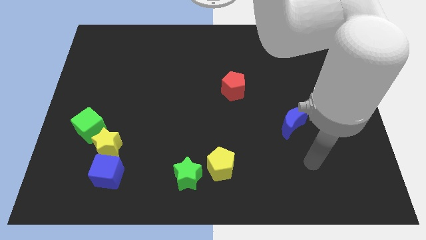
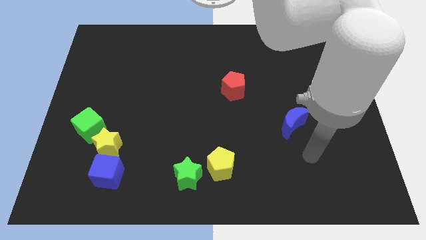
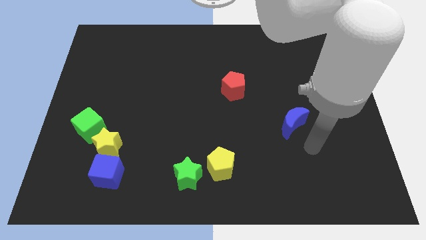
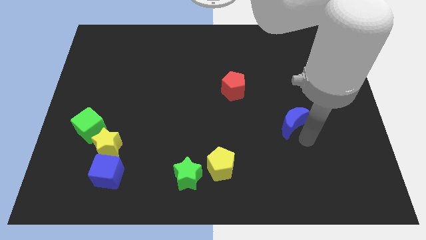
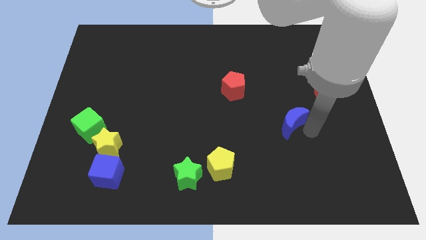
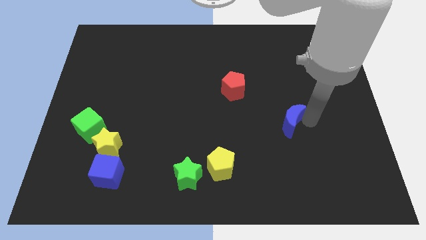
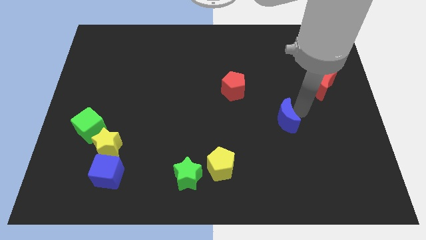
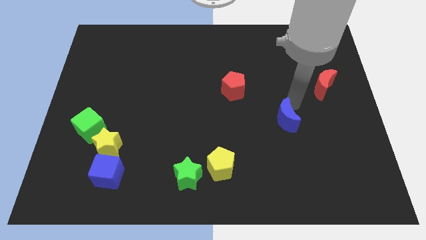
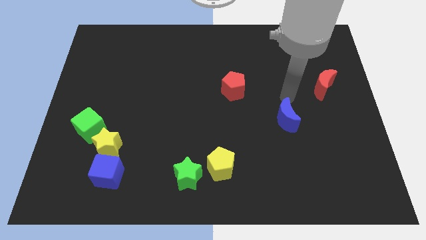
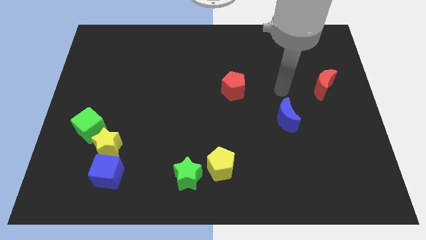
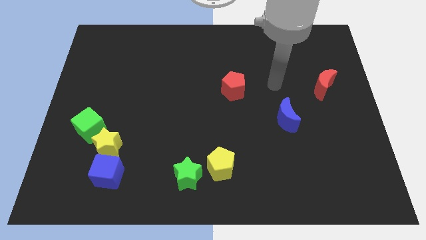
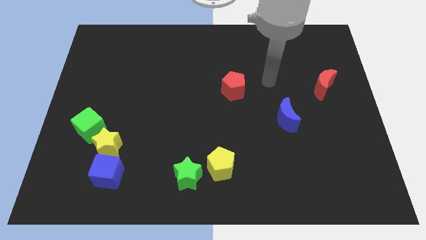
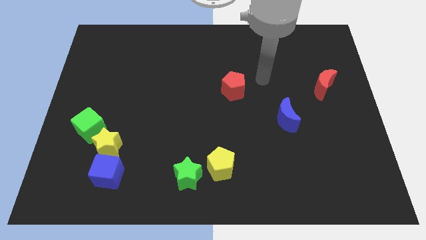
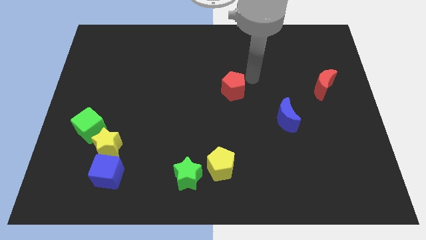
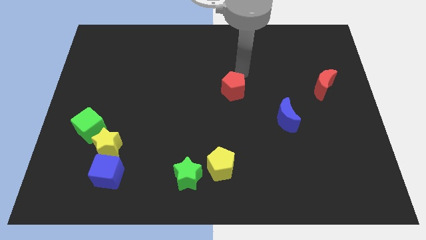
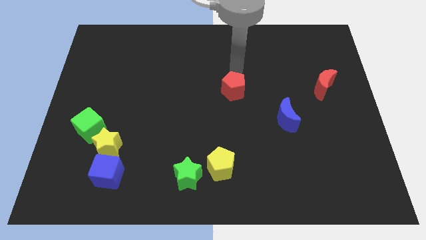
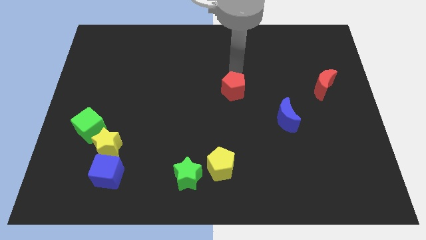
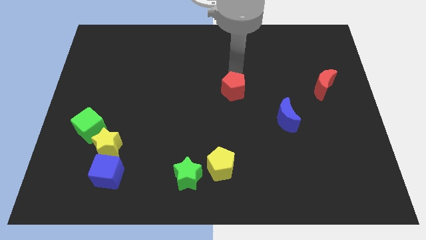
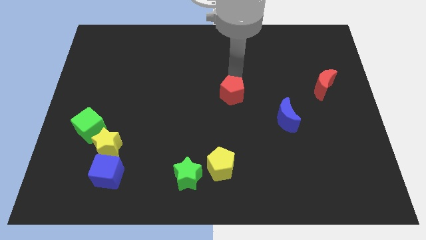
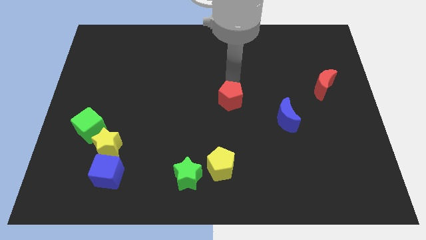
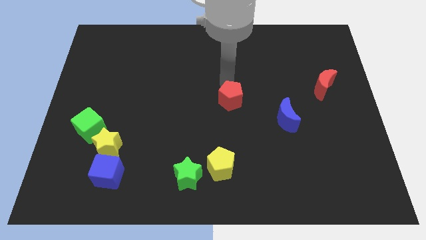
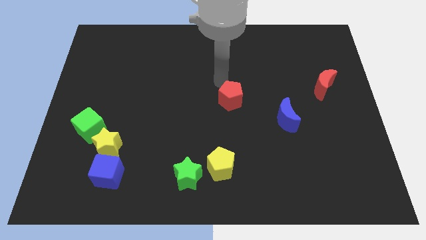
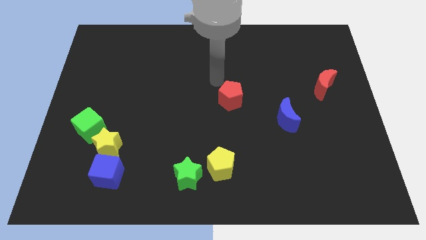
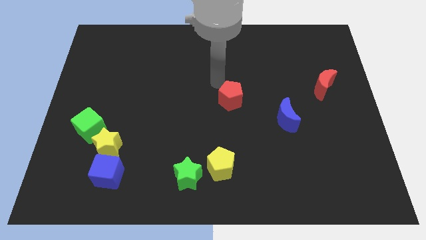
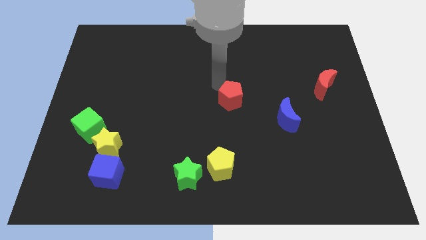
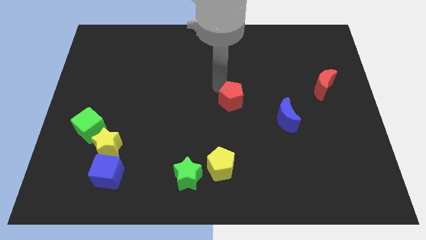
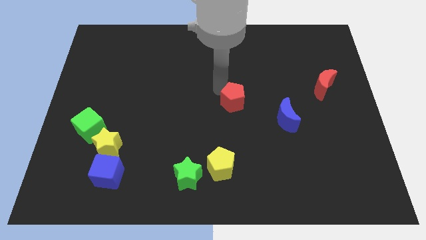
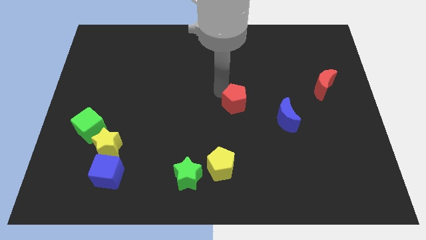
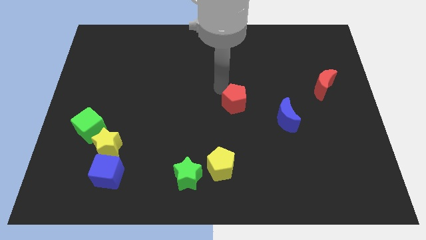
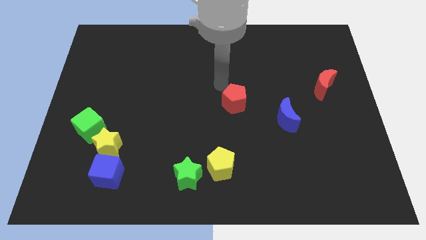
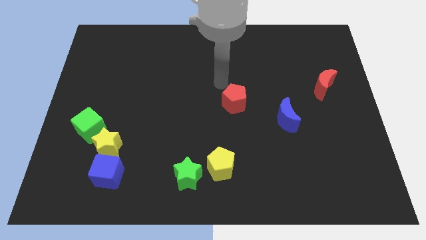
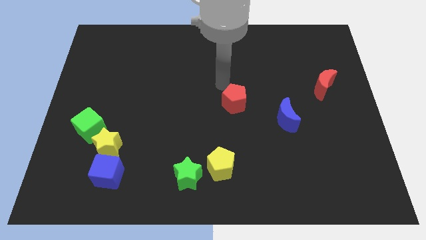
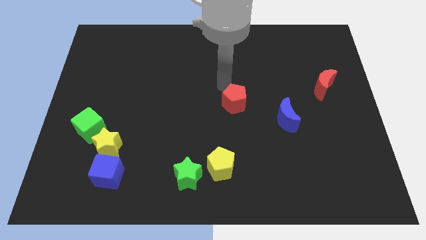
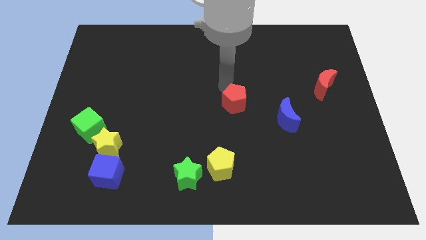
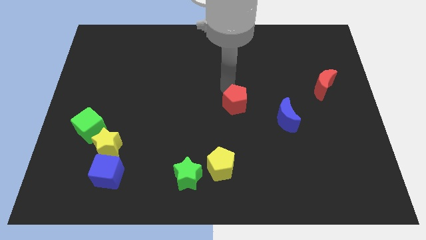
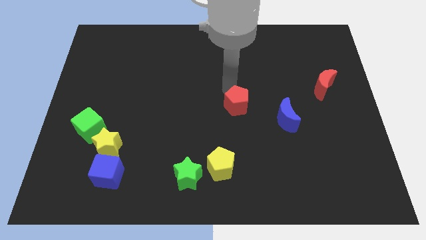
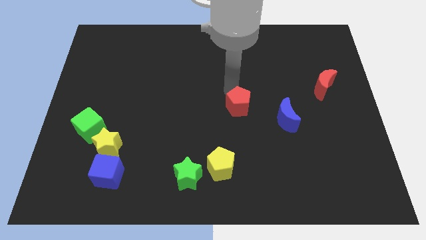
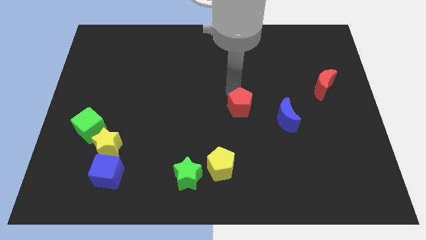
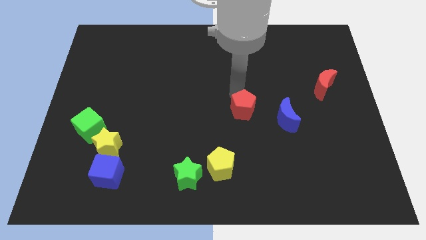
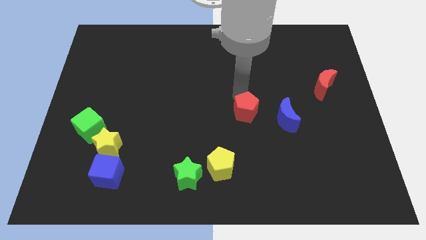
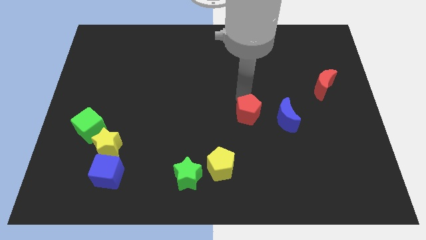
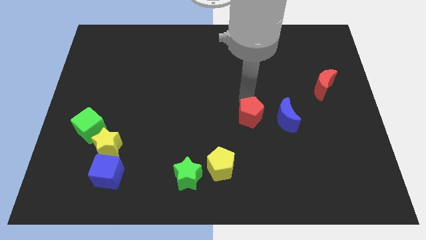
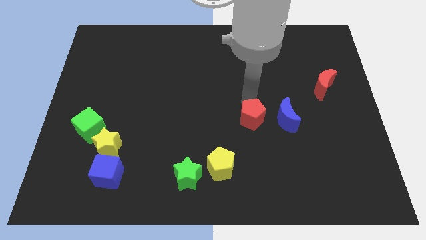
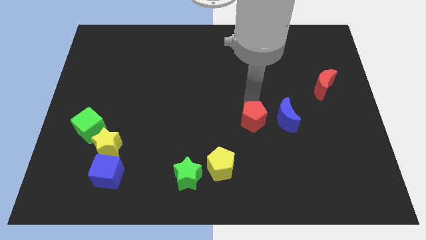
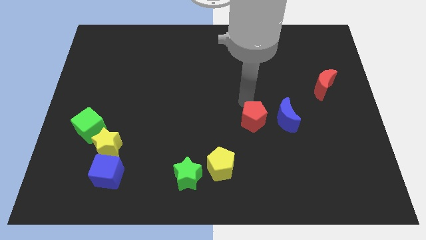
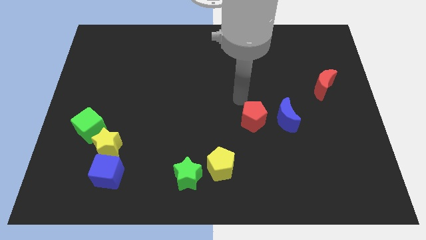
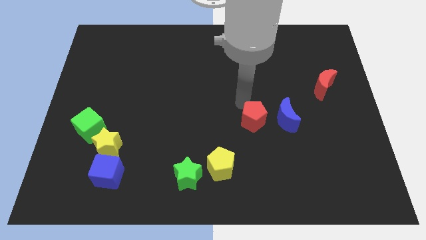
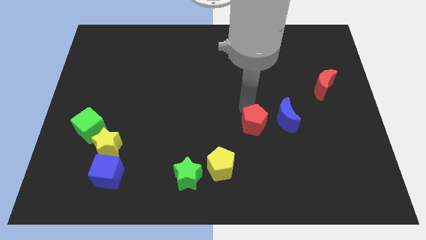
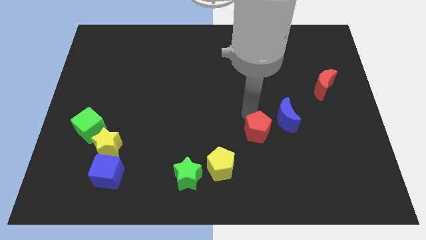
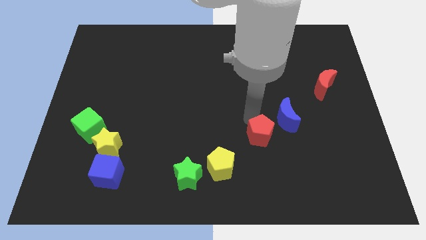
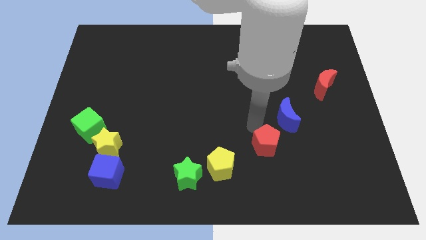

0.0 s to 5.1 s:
slide the red pentagon to the bottom side of the blue moon

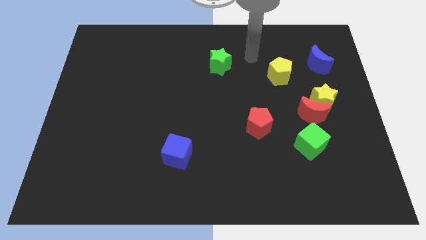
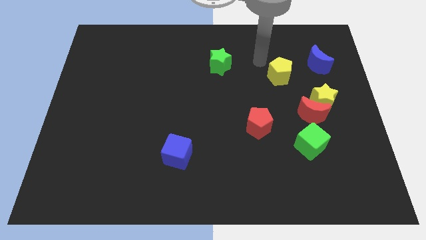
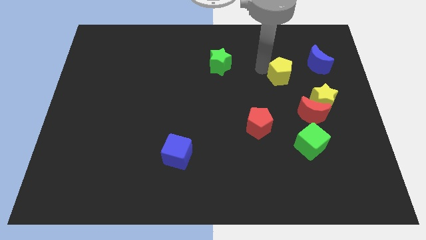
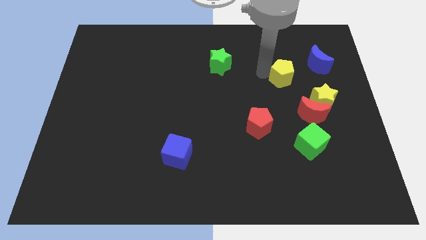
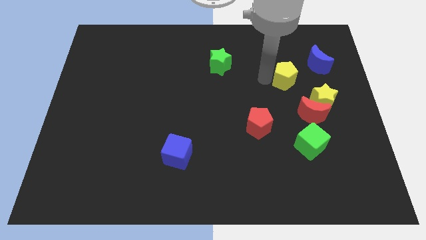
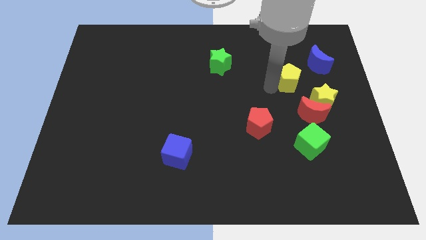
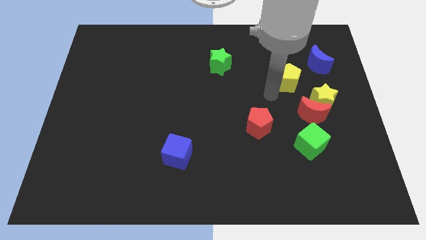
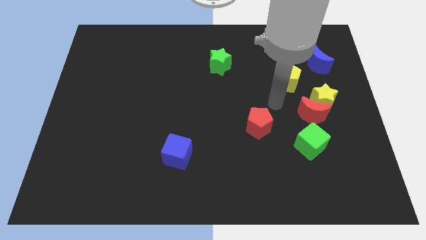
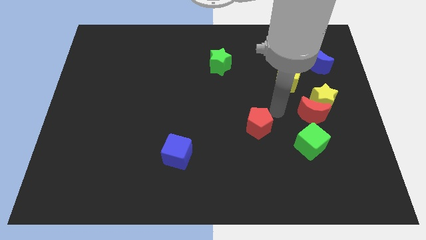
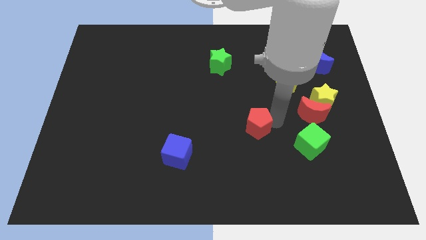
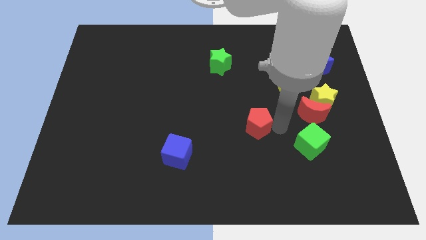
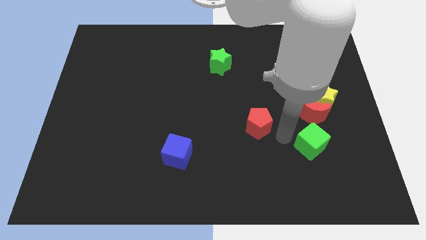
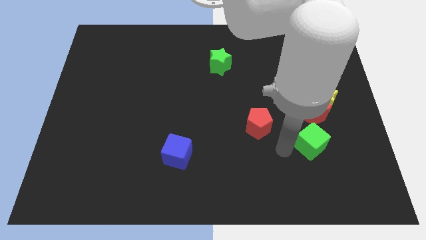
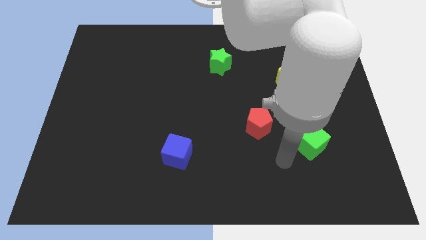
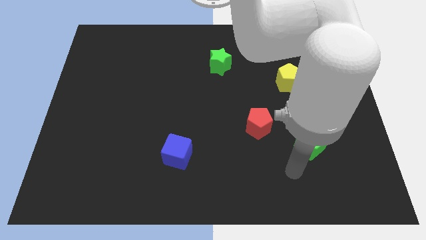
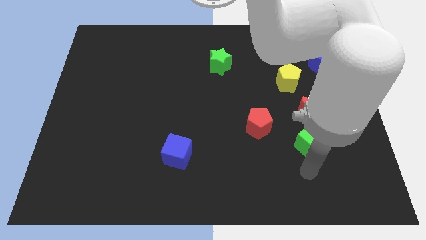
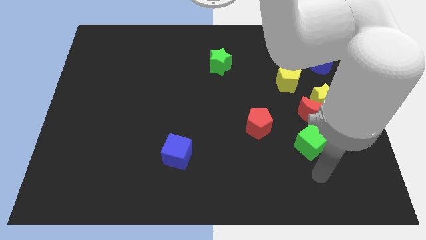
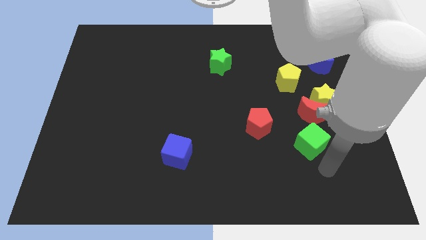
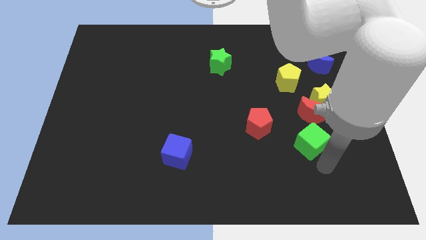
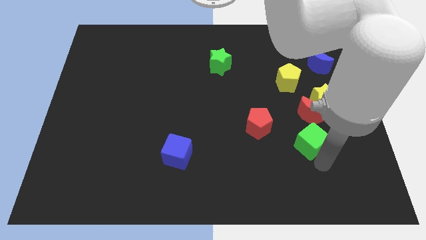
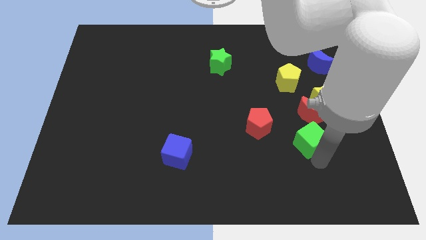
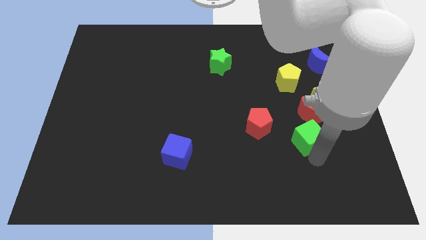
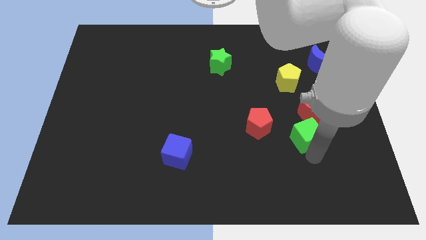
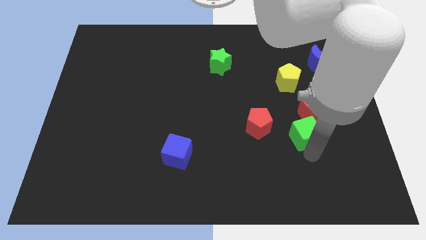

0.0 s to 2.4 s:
put the green cube to the bottom side of the yellow pentagon

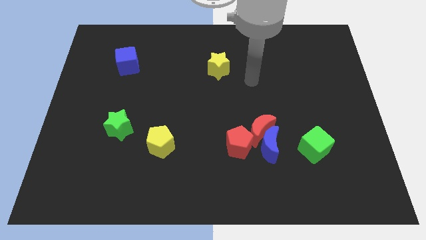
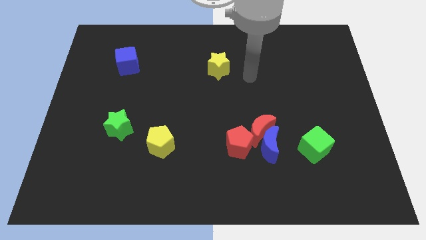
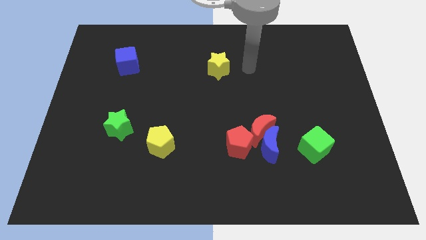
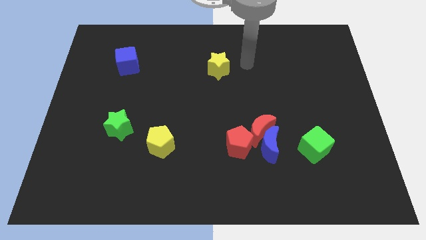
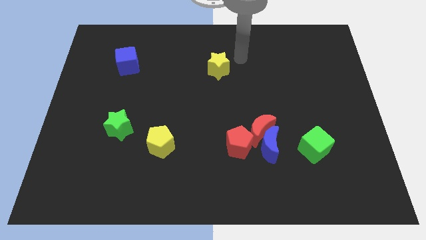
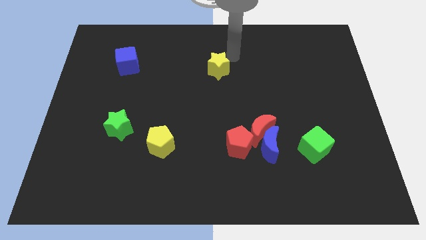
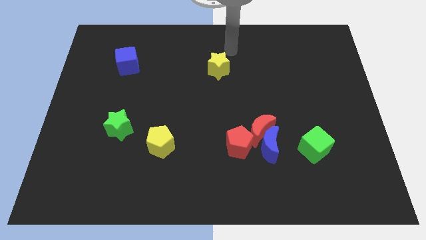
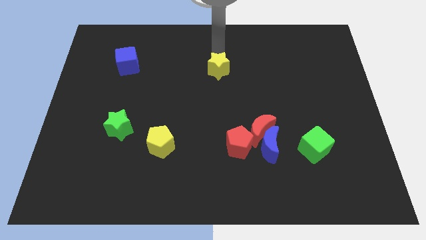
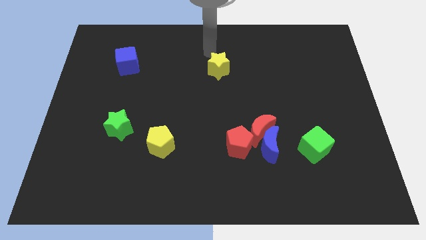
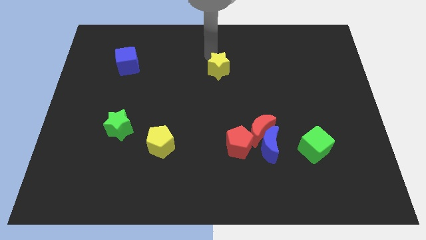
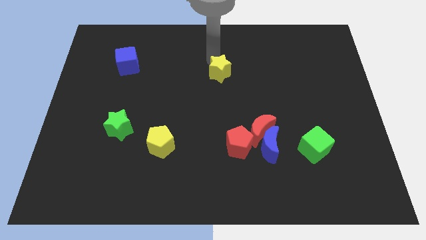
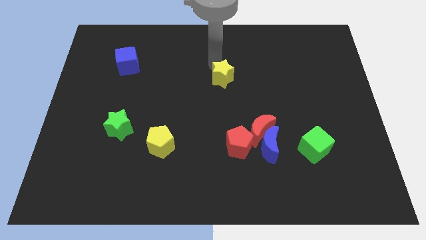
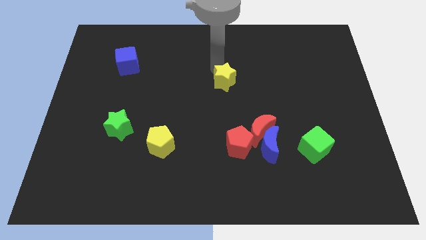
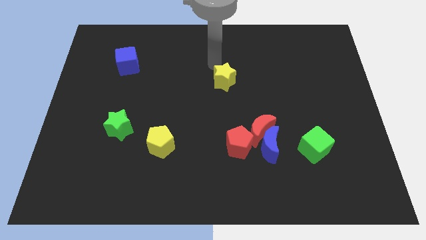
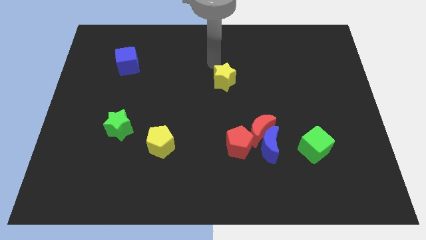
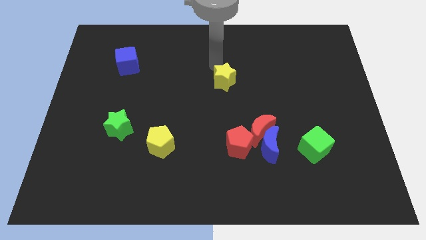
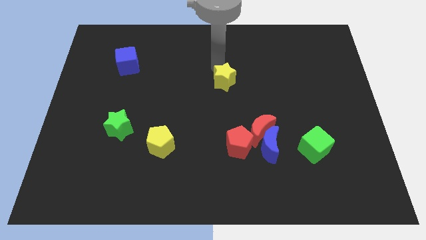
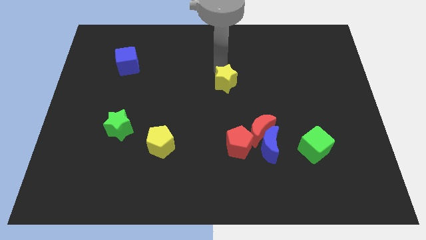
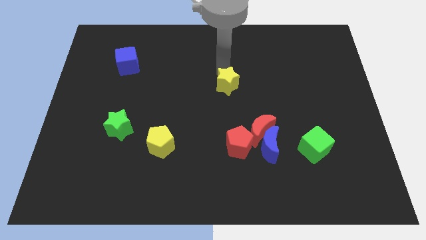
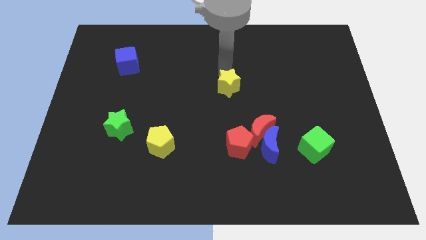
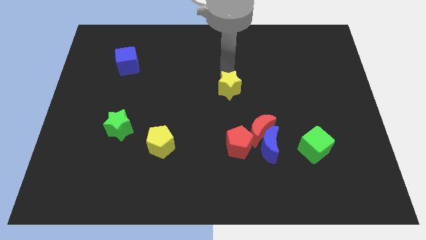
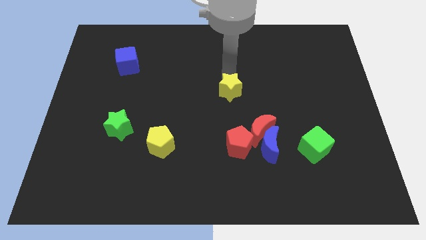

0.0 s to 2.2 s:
move the yellow star above the red pentagon
